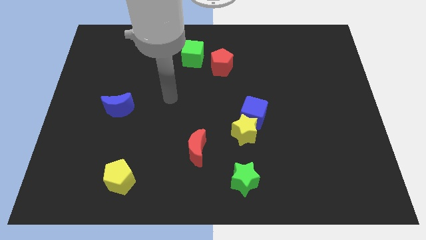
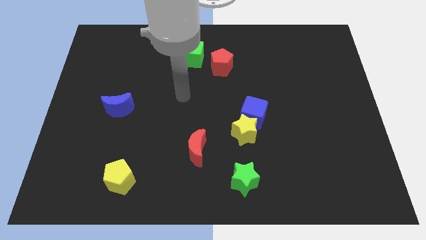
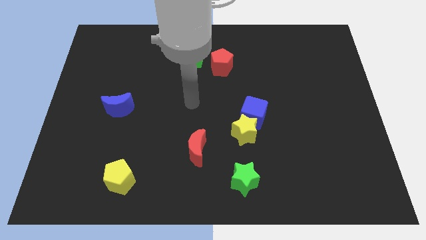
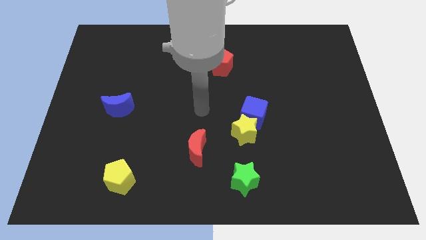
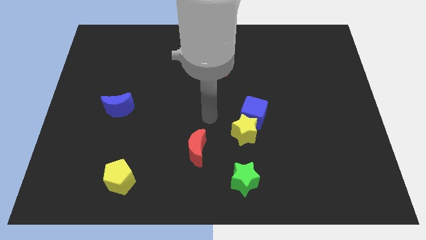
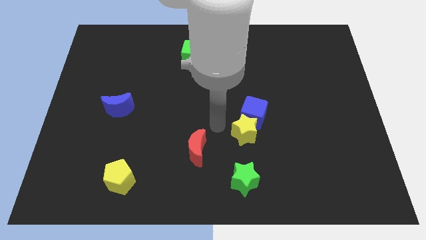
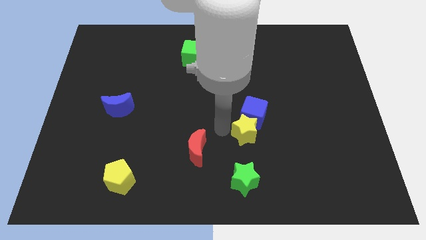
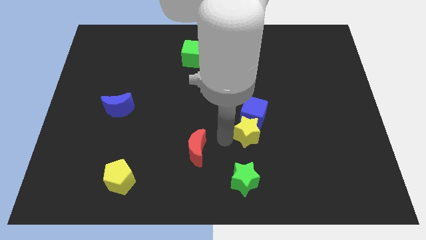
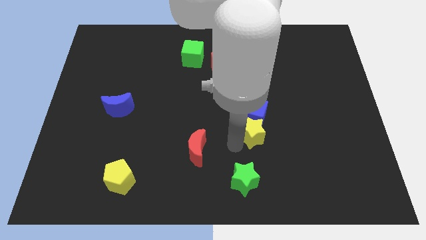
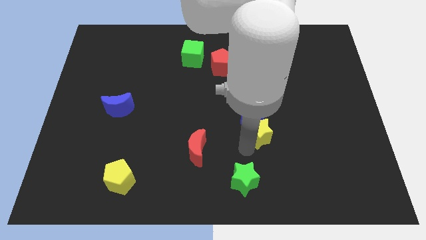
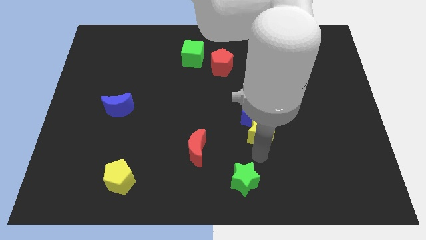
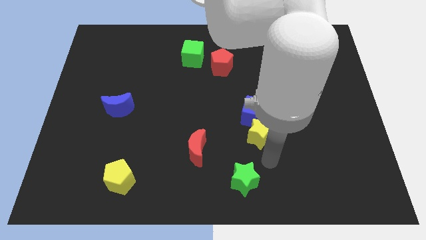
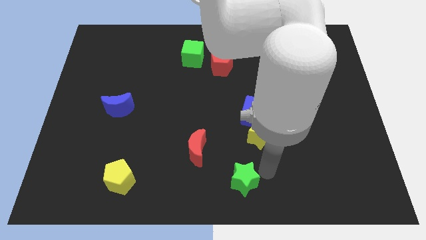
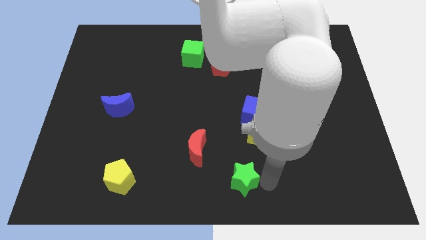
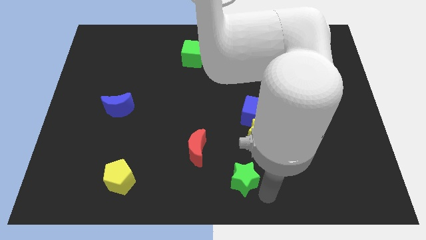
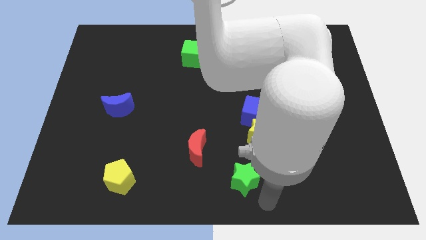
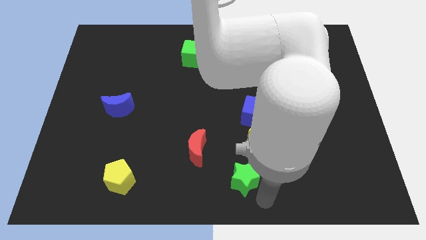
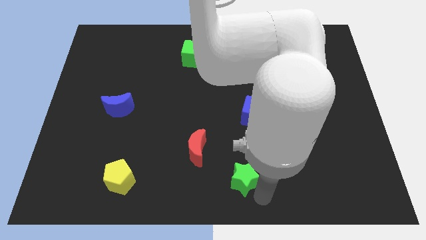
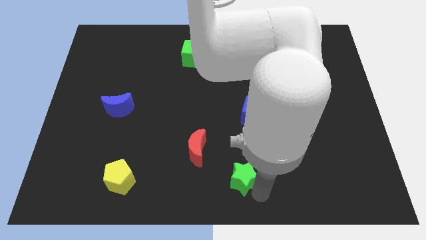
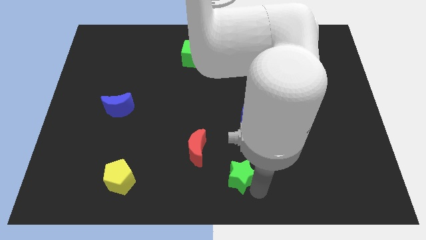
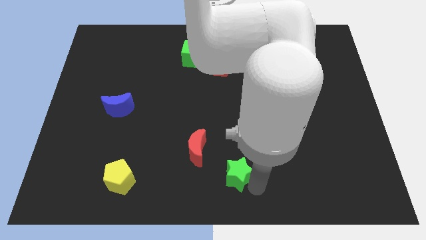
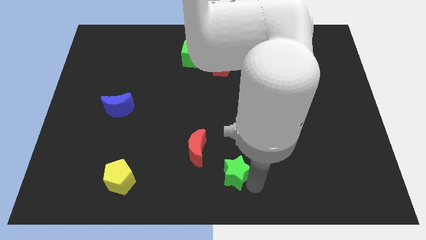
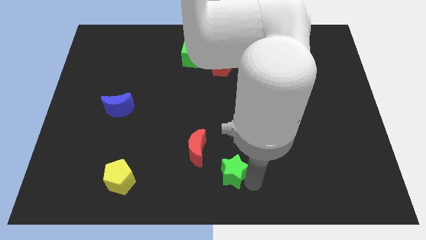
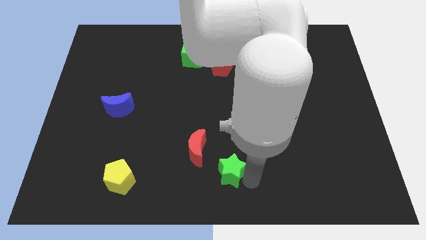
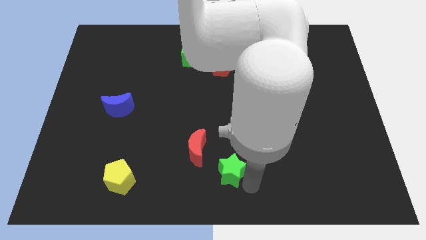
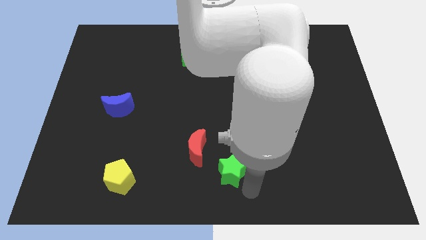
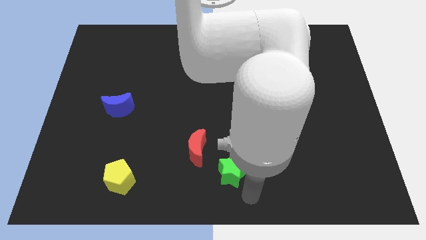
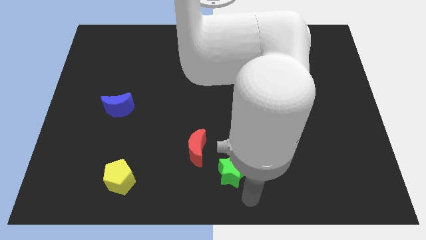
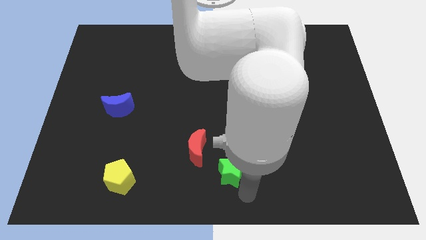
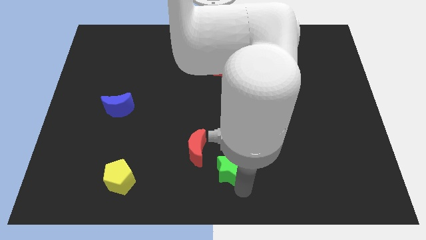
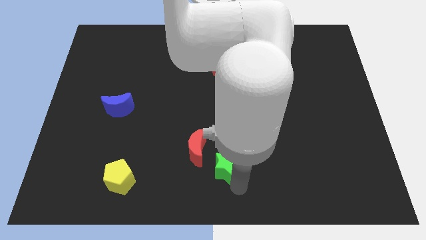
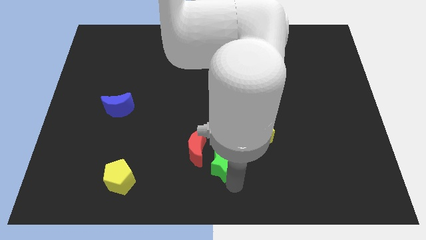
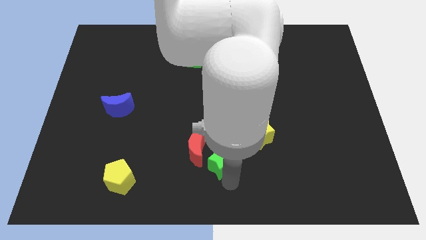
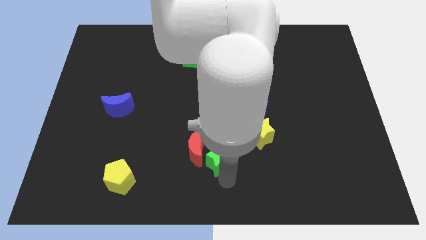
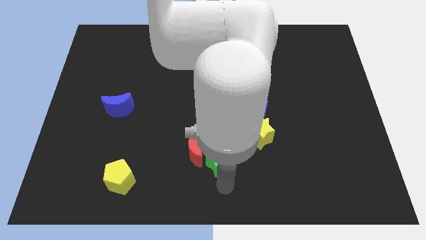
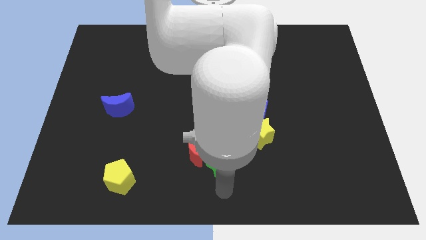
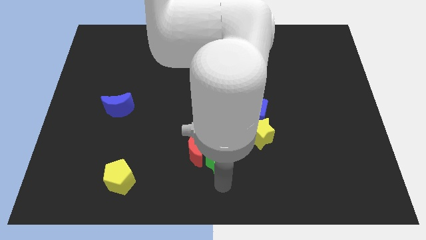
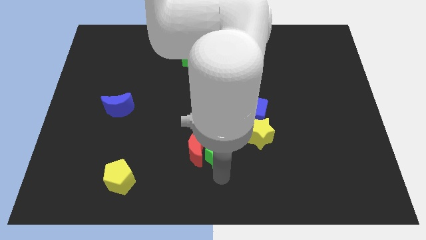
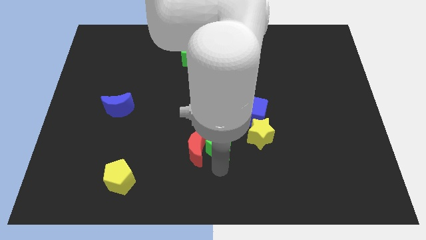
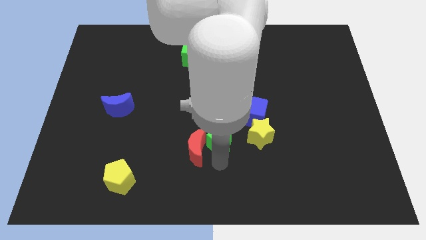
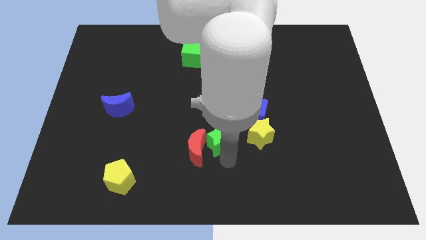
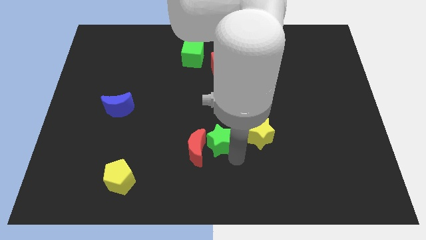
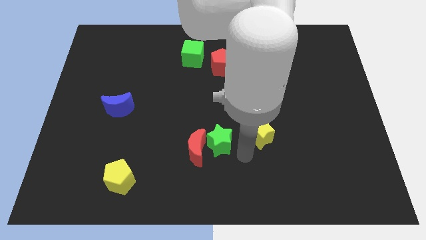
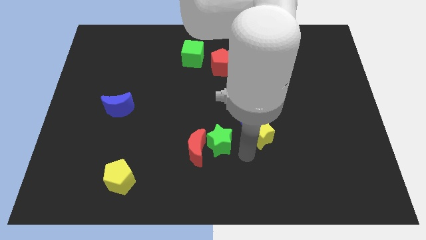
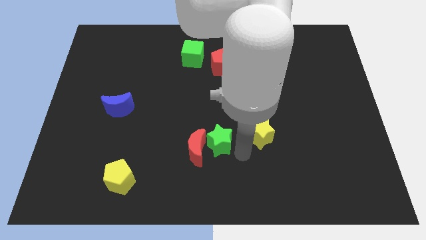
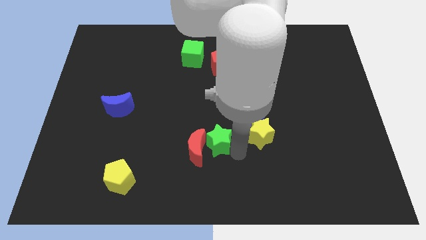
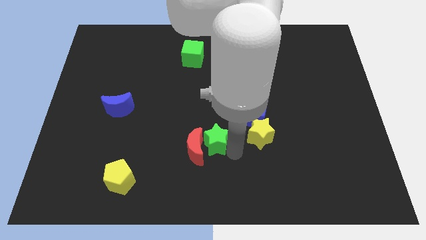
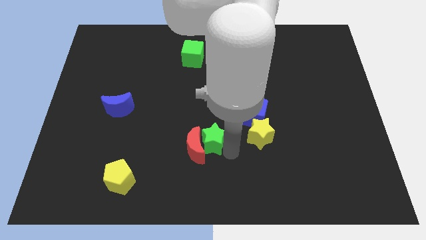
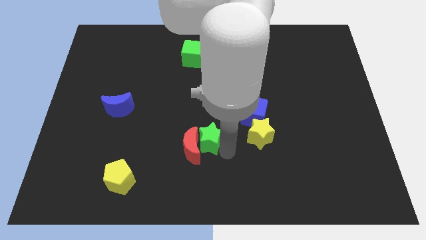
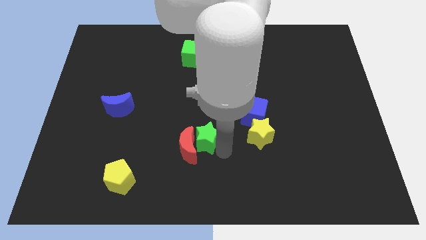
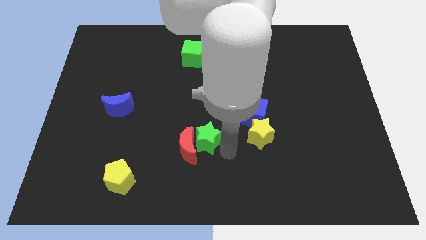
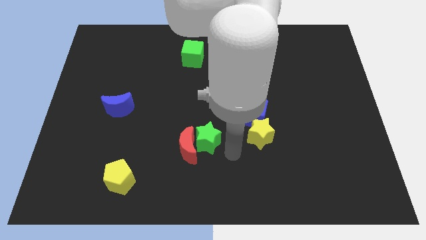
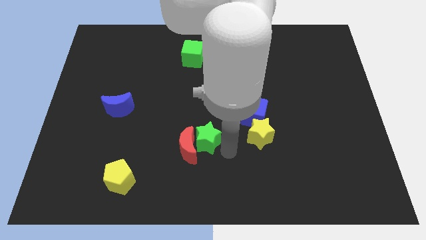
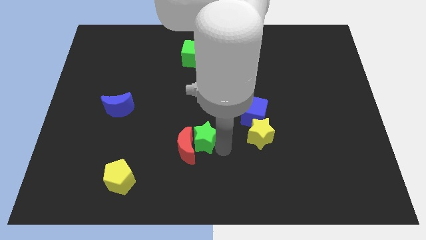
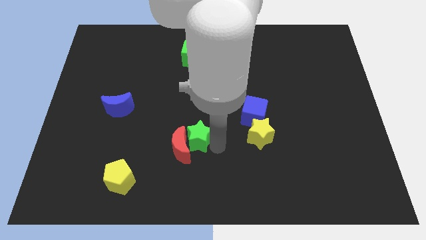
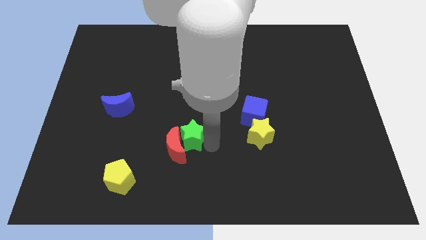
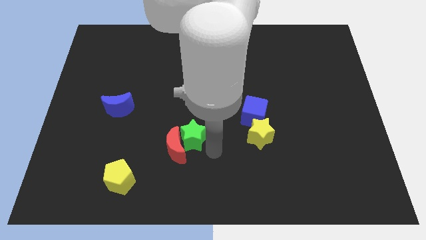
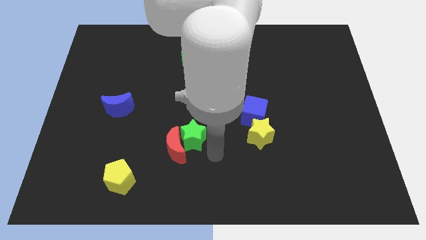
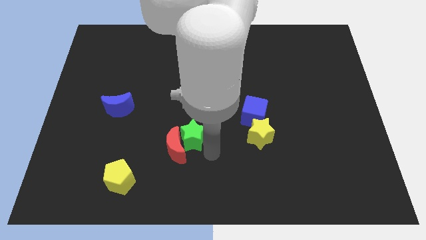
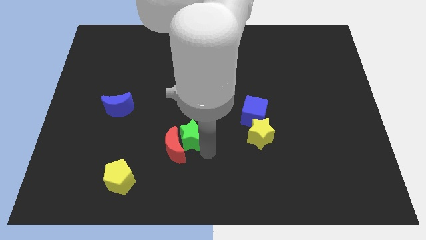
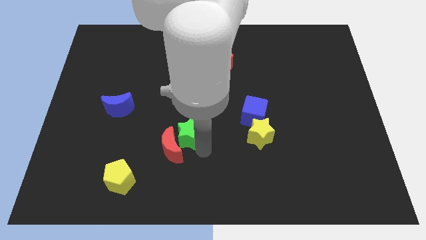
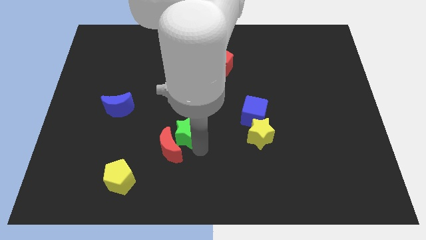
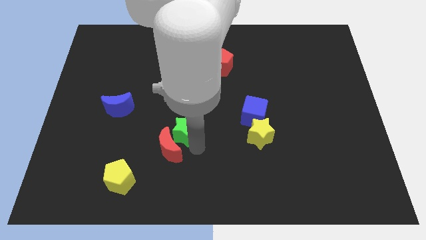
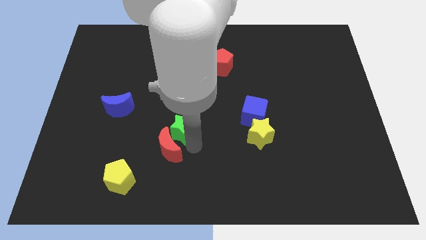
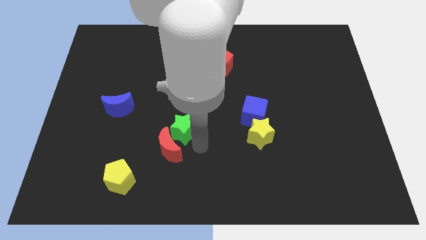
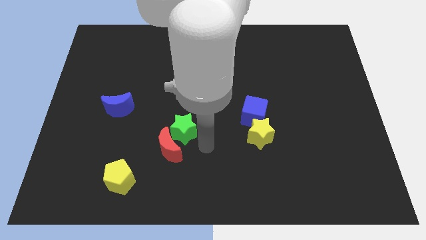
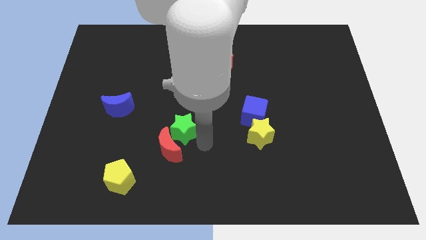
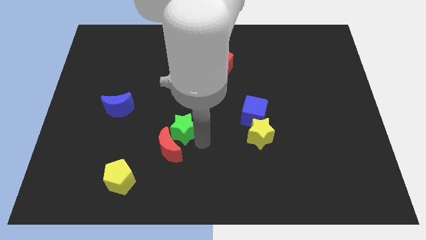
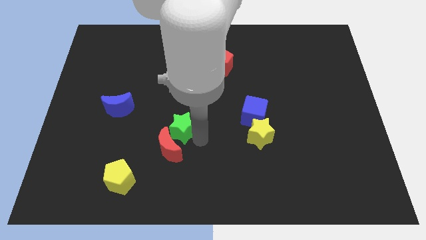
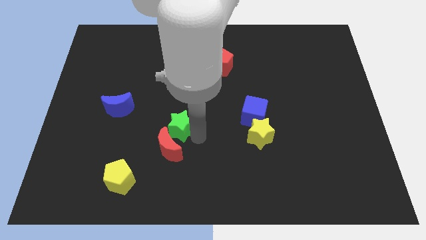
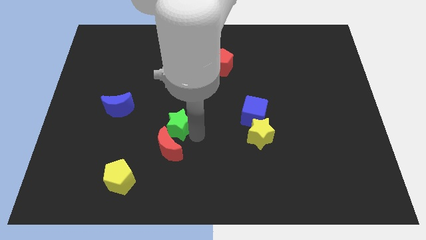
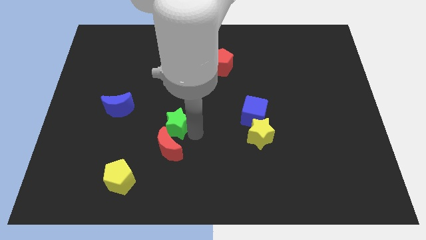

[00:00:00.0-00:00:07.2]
slide the green star diagonally up and to the left

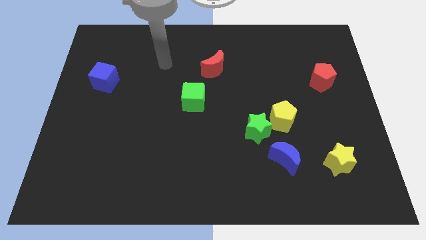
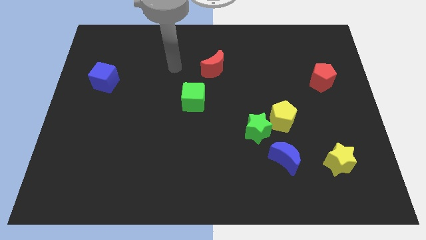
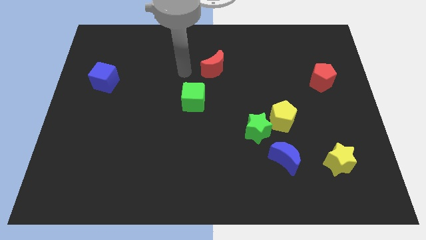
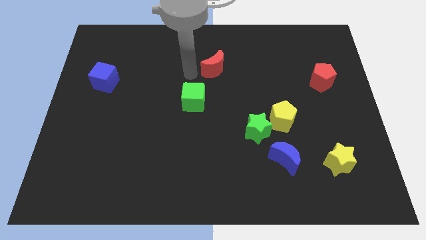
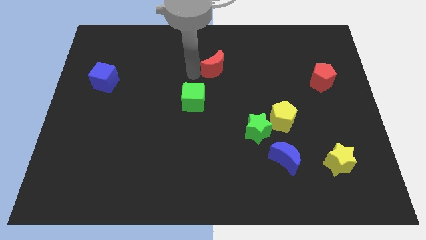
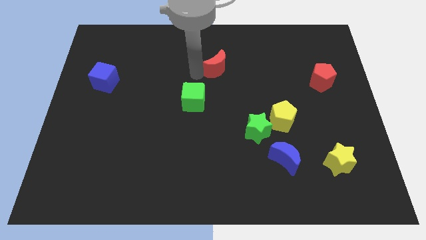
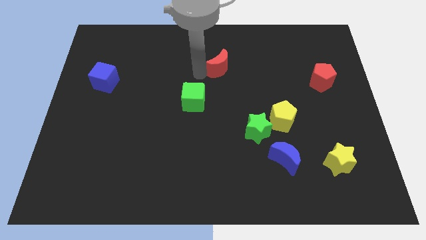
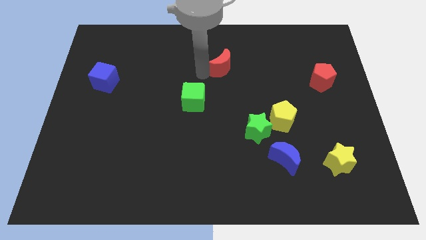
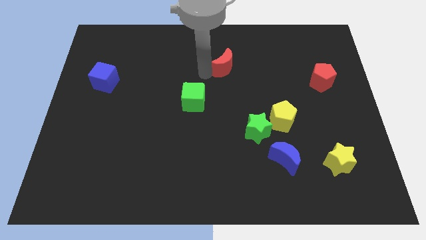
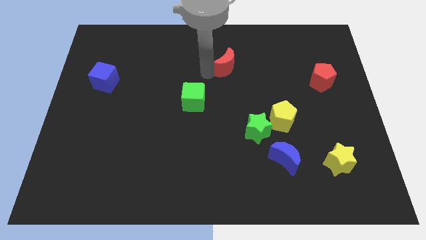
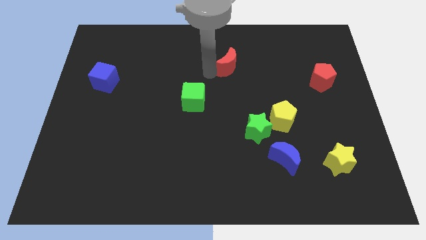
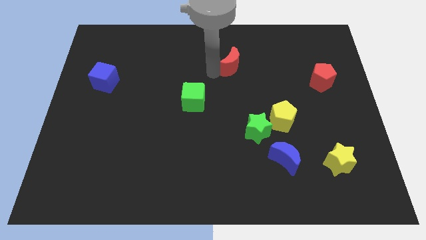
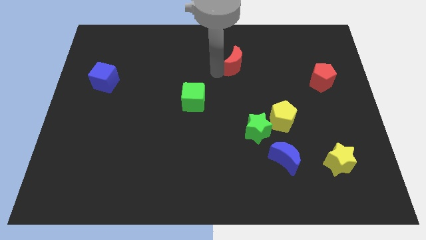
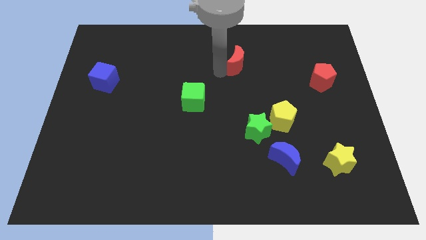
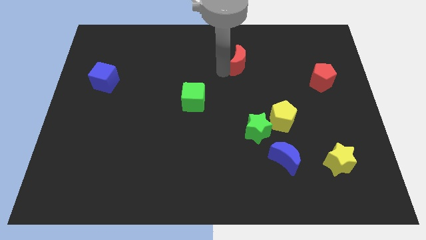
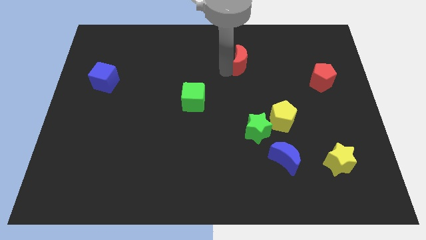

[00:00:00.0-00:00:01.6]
slide the red moon a bit right
